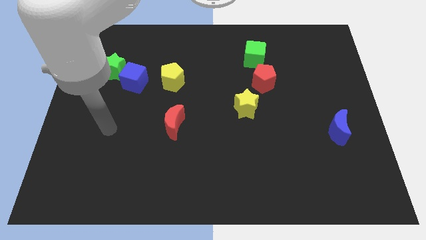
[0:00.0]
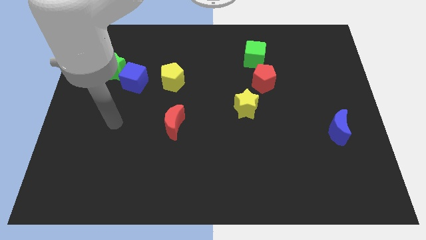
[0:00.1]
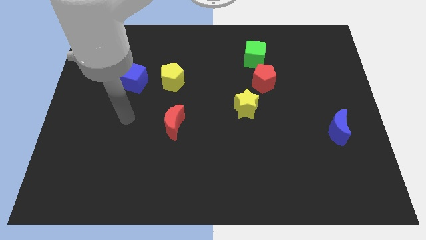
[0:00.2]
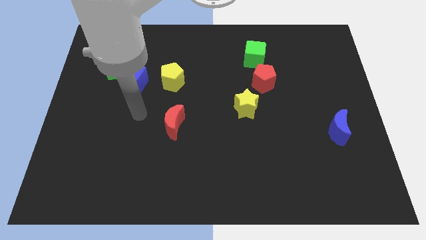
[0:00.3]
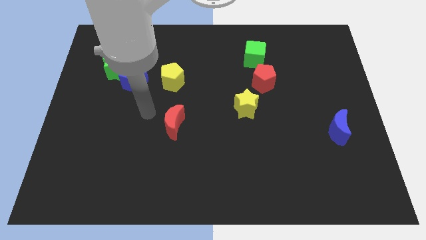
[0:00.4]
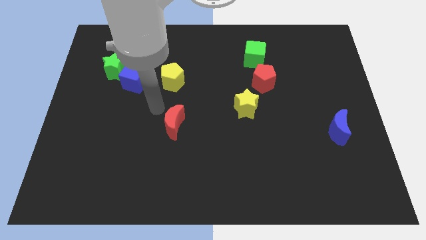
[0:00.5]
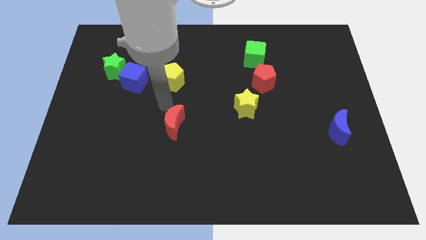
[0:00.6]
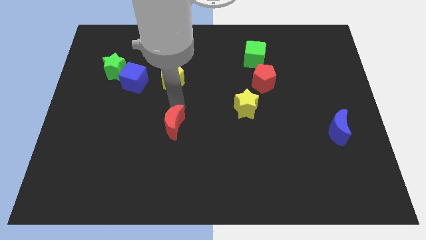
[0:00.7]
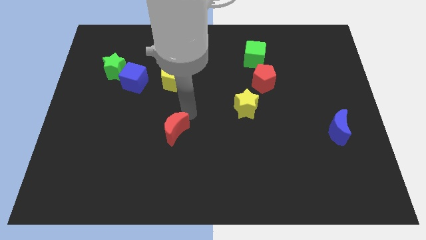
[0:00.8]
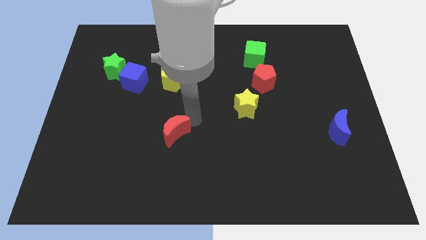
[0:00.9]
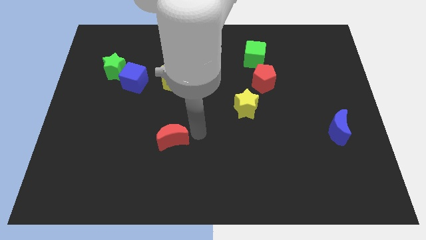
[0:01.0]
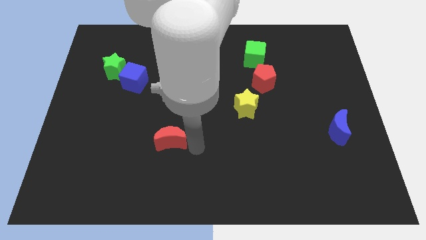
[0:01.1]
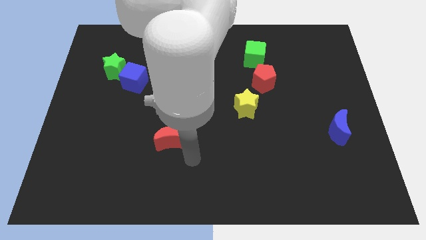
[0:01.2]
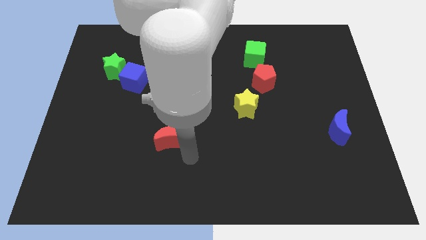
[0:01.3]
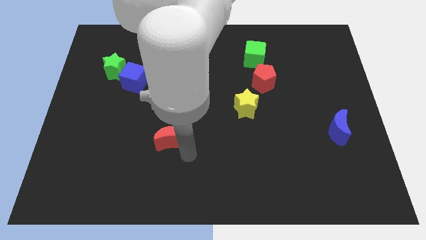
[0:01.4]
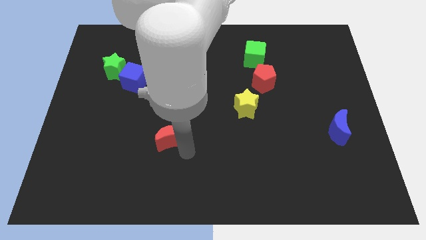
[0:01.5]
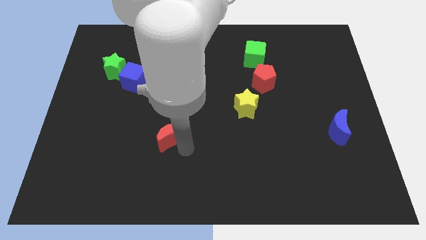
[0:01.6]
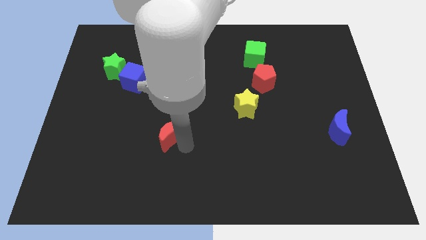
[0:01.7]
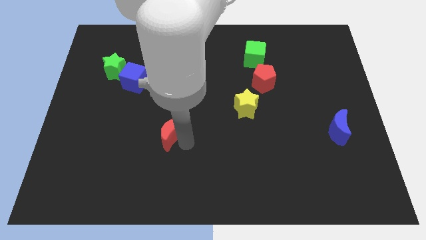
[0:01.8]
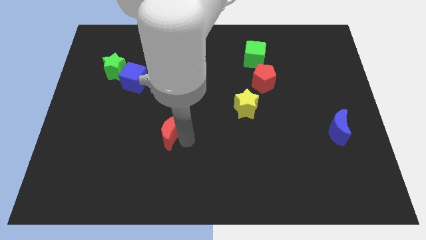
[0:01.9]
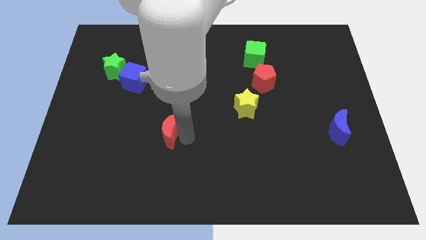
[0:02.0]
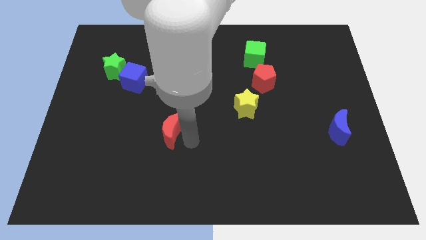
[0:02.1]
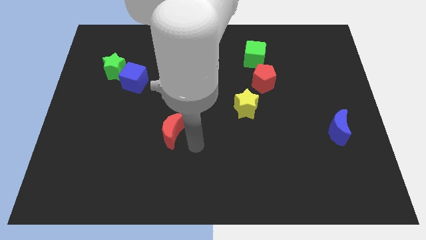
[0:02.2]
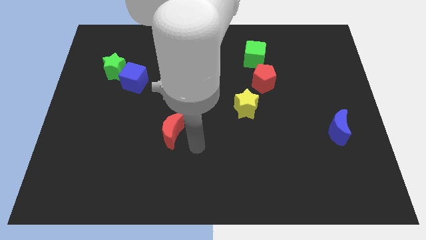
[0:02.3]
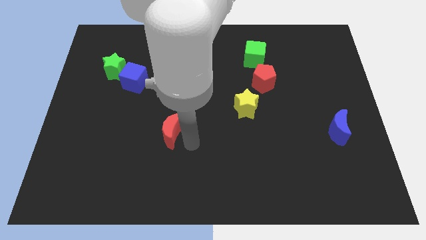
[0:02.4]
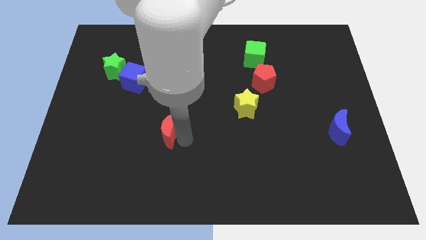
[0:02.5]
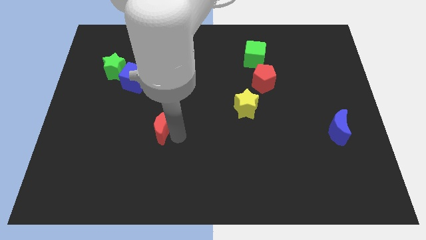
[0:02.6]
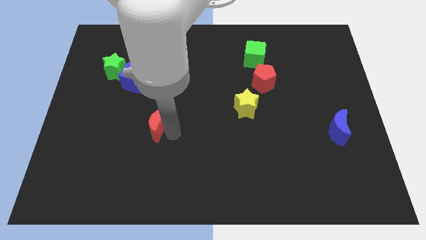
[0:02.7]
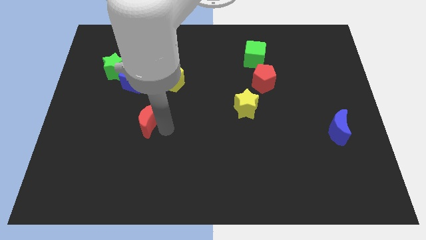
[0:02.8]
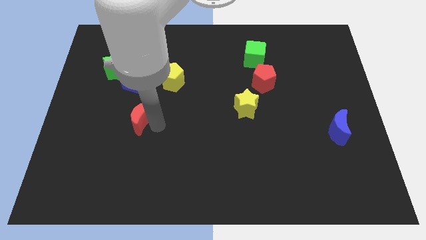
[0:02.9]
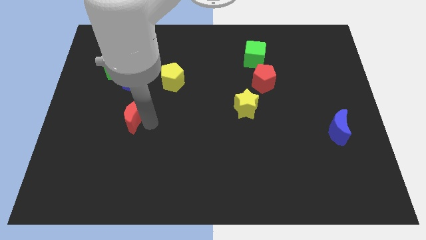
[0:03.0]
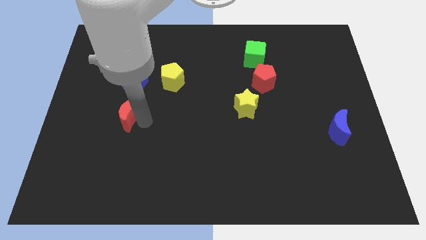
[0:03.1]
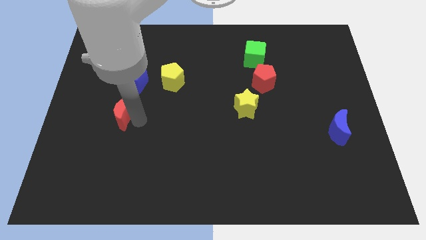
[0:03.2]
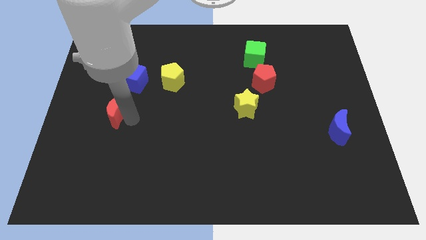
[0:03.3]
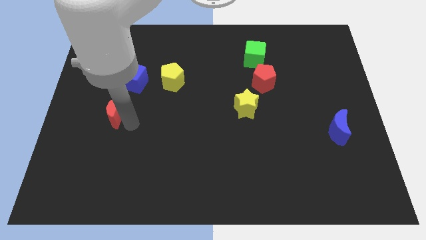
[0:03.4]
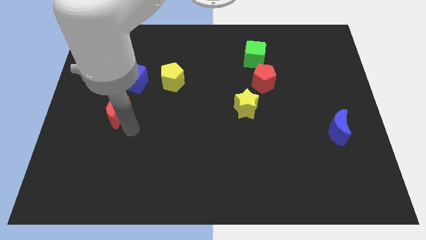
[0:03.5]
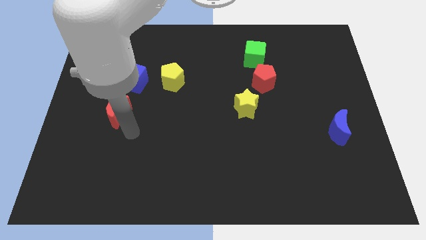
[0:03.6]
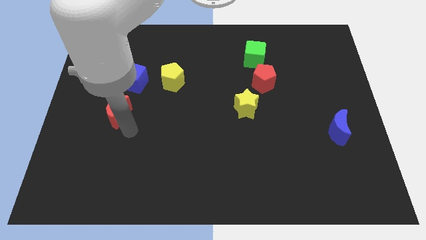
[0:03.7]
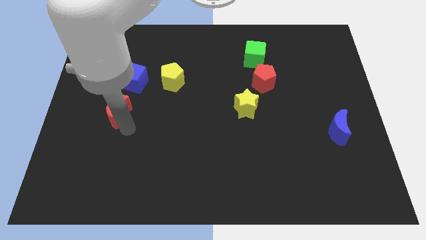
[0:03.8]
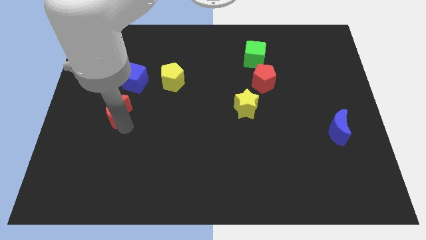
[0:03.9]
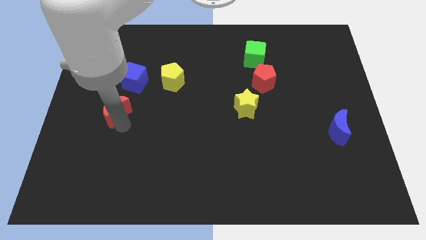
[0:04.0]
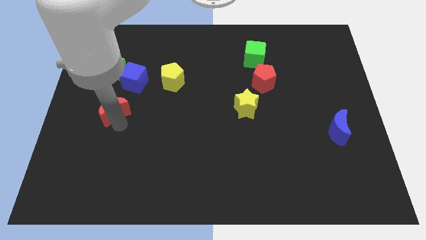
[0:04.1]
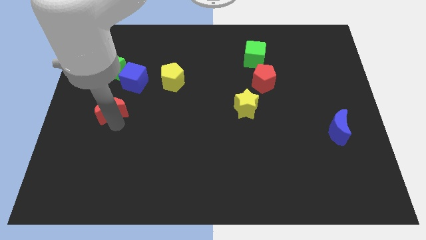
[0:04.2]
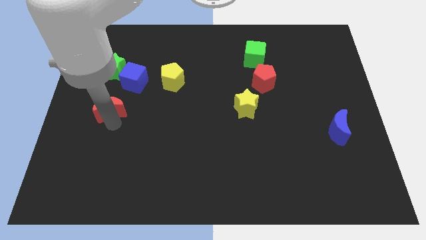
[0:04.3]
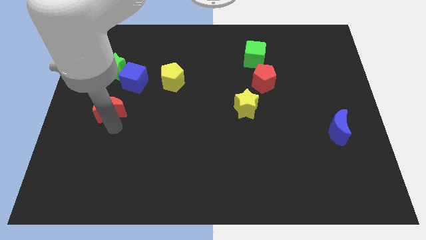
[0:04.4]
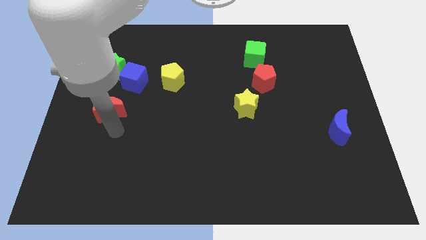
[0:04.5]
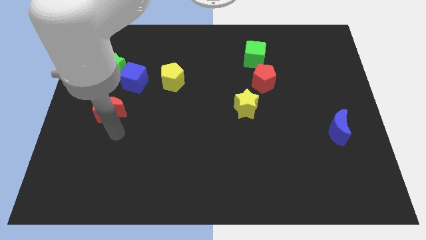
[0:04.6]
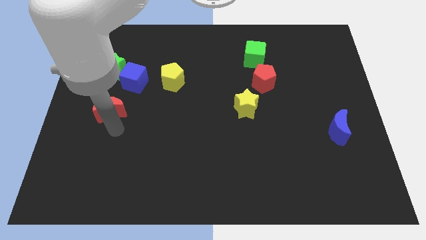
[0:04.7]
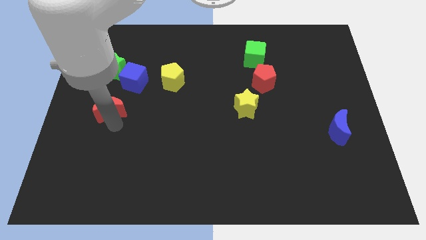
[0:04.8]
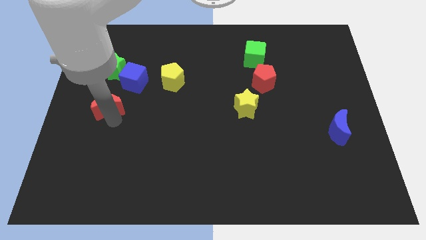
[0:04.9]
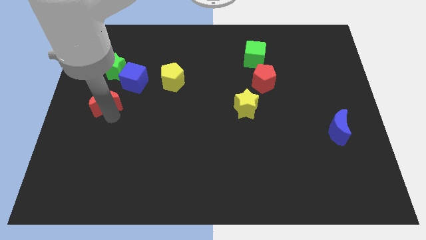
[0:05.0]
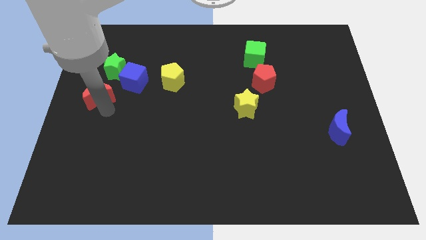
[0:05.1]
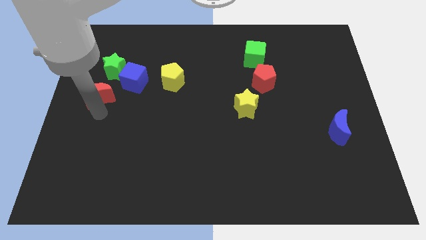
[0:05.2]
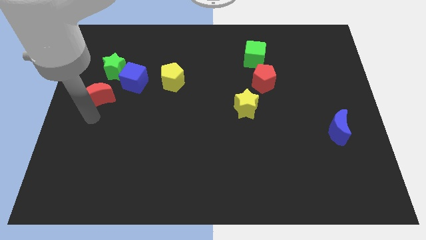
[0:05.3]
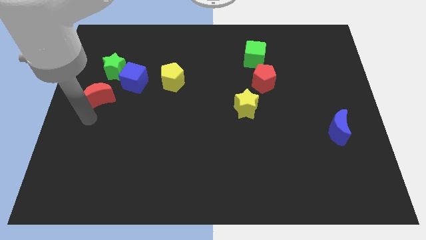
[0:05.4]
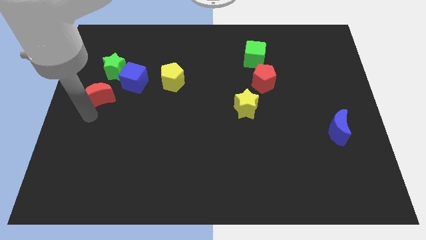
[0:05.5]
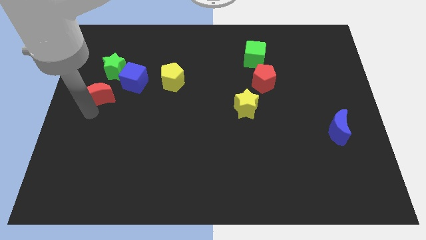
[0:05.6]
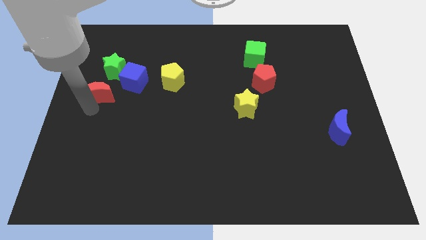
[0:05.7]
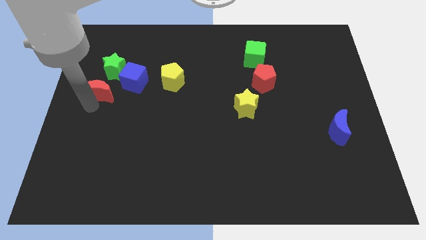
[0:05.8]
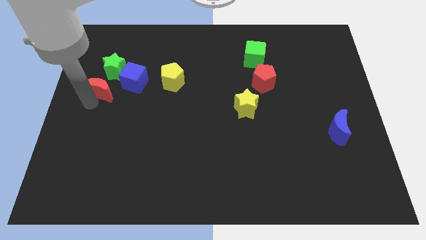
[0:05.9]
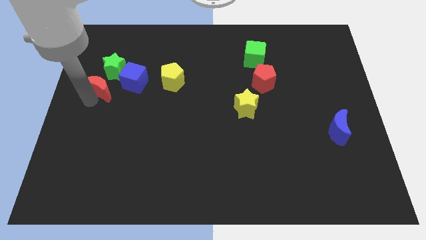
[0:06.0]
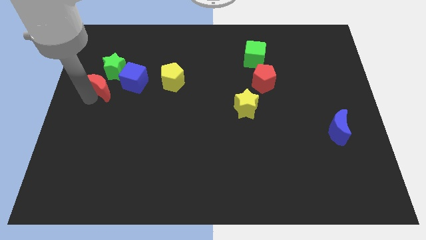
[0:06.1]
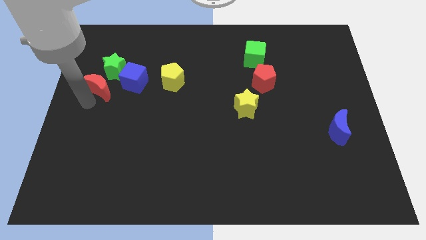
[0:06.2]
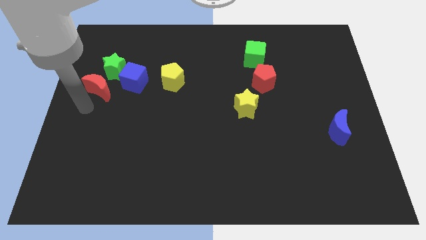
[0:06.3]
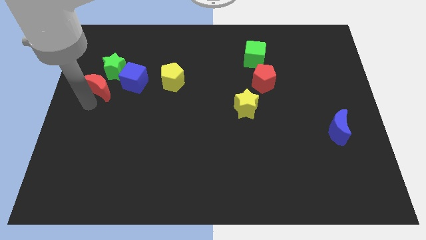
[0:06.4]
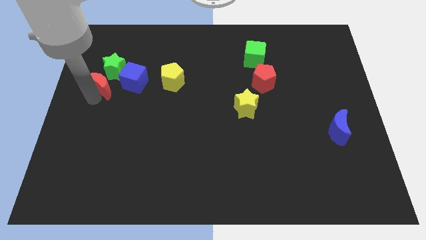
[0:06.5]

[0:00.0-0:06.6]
push the red moon to the green star

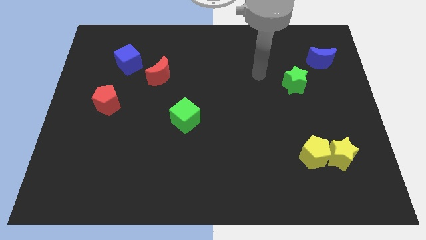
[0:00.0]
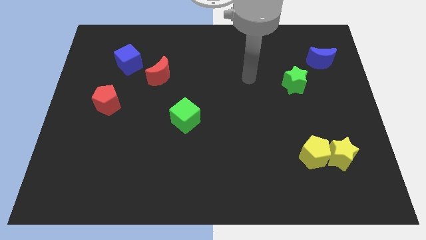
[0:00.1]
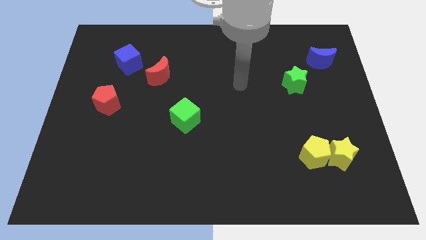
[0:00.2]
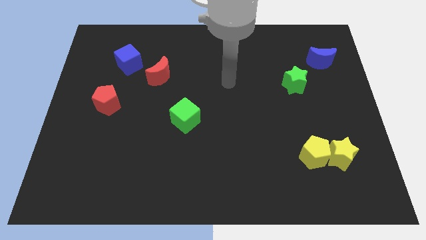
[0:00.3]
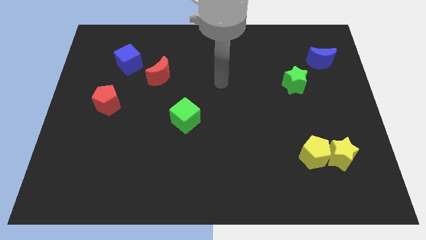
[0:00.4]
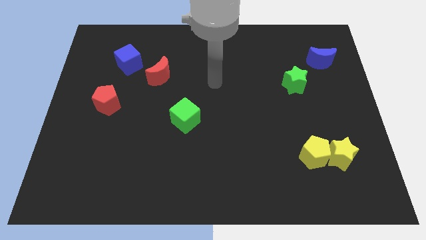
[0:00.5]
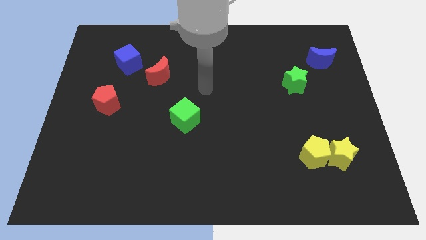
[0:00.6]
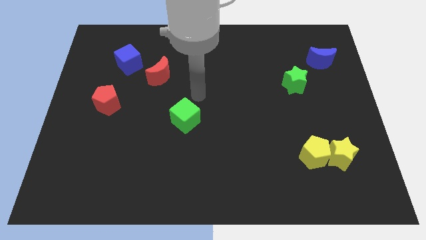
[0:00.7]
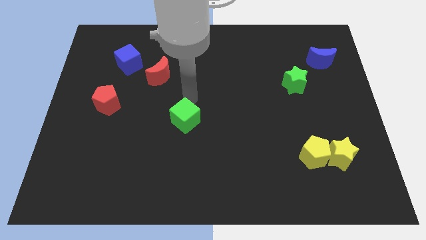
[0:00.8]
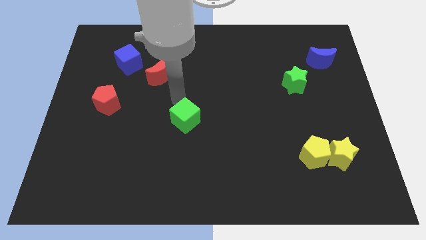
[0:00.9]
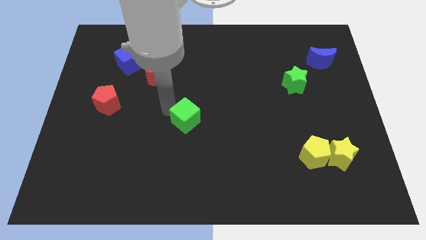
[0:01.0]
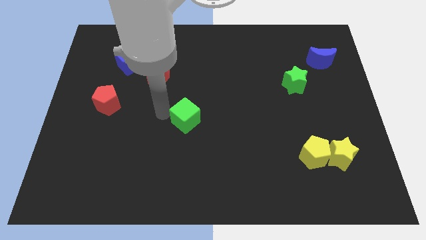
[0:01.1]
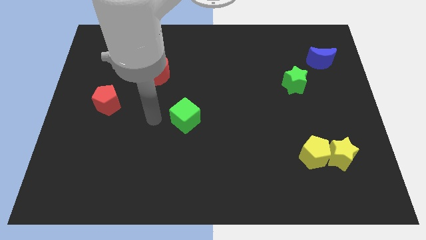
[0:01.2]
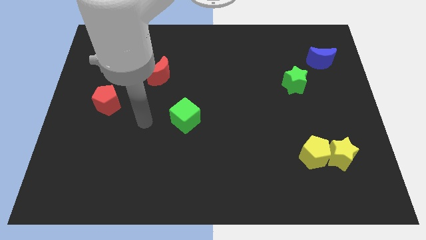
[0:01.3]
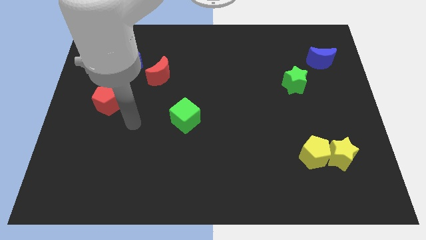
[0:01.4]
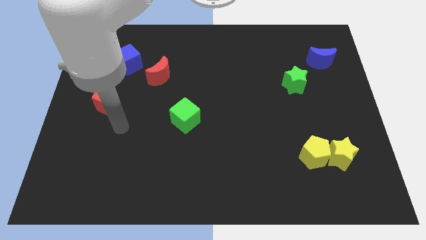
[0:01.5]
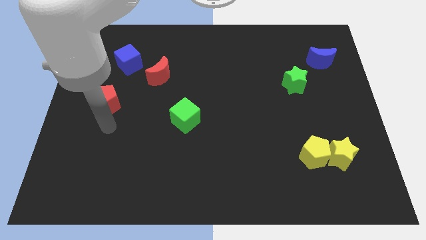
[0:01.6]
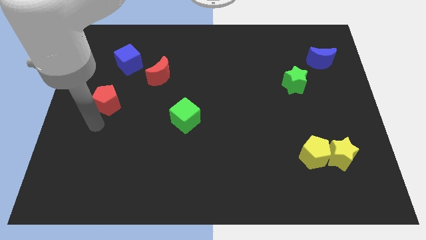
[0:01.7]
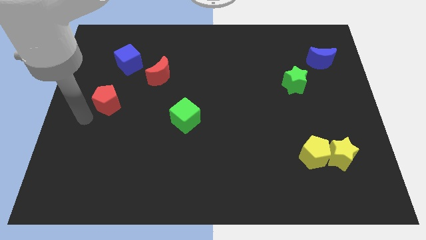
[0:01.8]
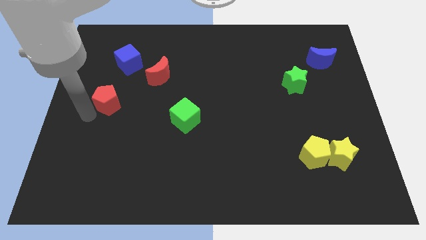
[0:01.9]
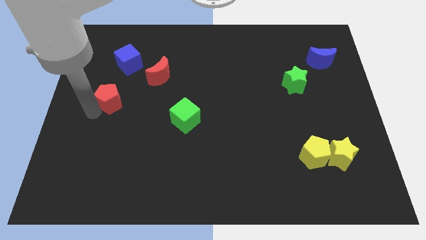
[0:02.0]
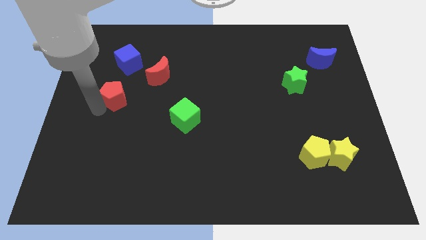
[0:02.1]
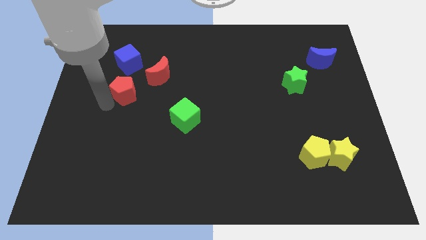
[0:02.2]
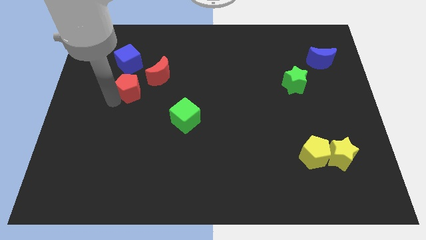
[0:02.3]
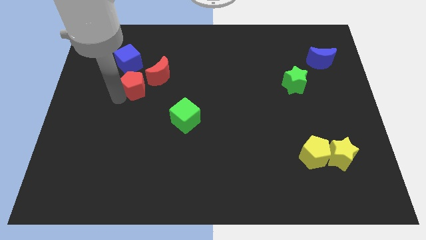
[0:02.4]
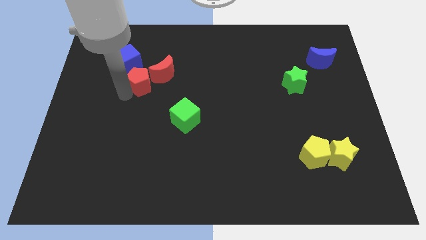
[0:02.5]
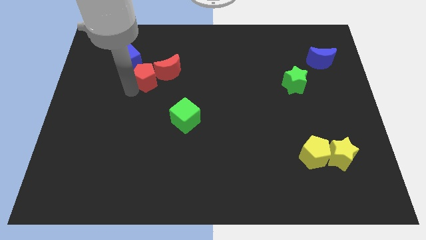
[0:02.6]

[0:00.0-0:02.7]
move the red pentagon next to the red moon
